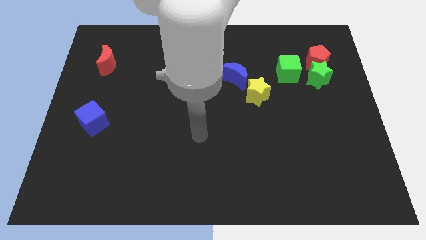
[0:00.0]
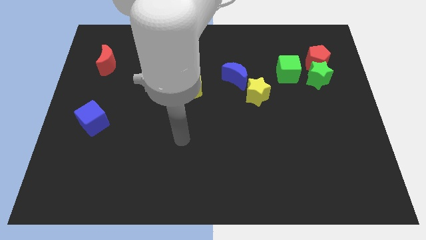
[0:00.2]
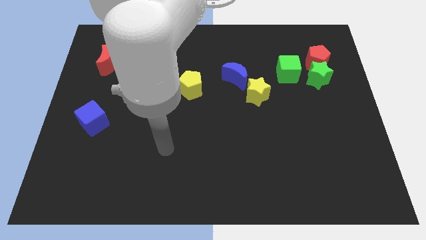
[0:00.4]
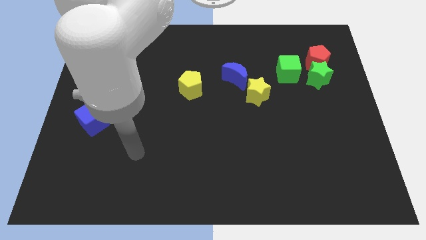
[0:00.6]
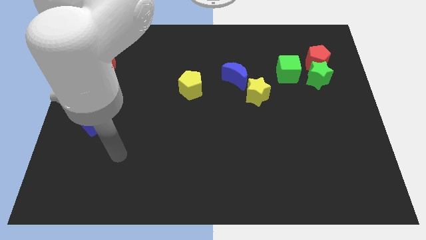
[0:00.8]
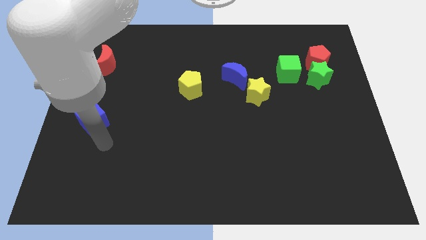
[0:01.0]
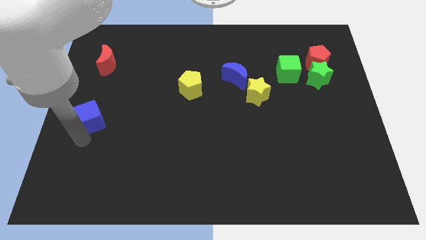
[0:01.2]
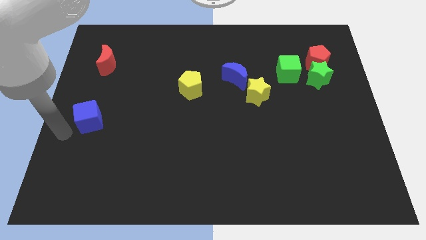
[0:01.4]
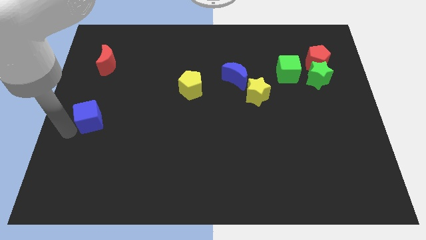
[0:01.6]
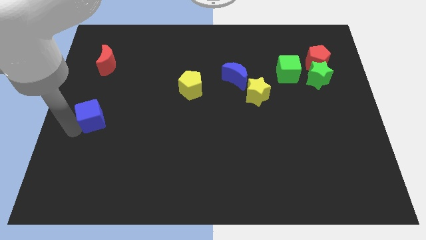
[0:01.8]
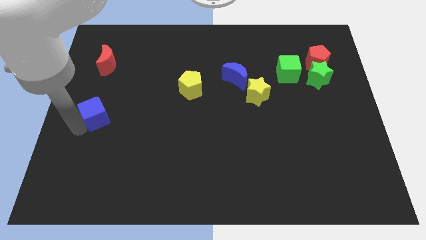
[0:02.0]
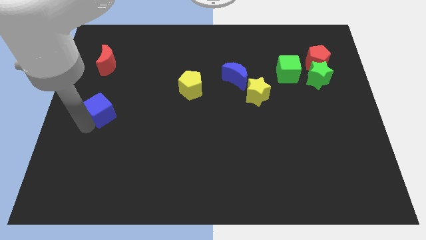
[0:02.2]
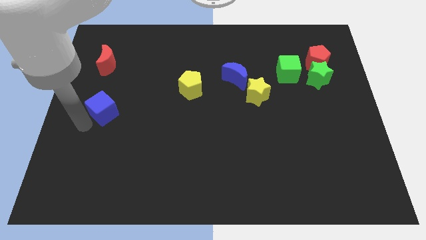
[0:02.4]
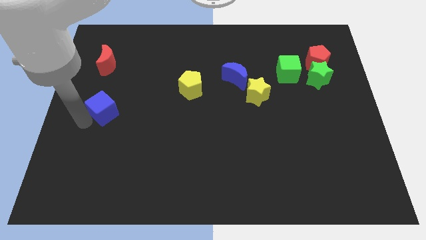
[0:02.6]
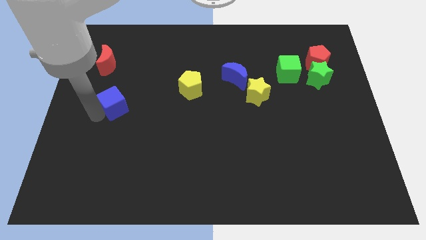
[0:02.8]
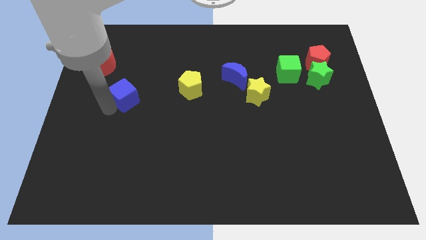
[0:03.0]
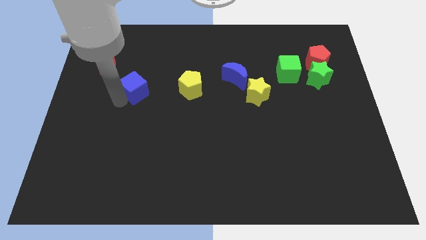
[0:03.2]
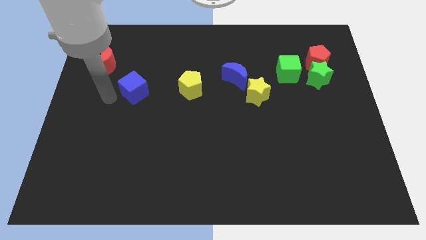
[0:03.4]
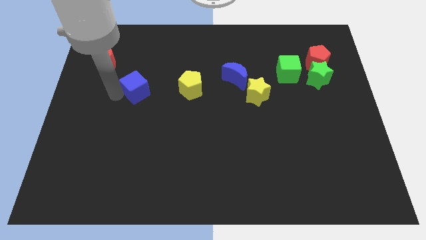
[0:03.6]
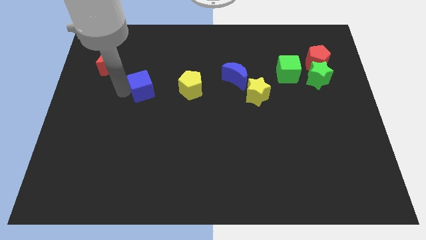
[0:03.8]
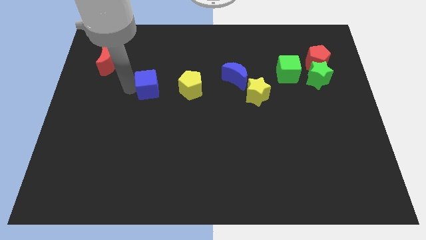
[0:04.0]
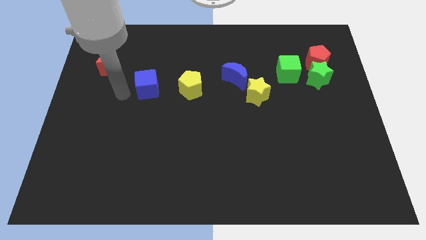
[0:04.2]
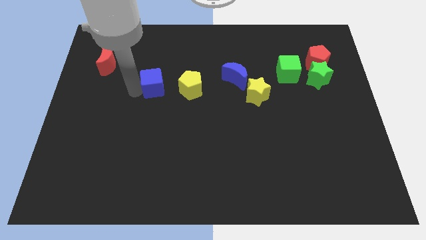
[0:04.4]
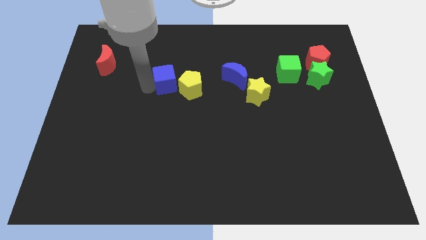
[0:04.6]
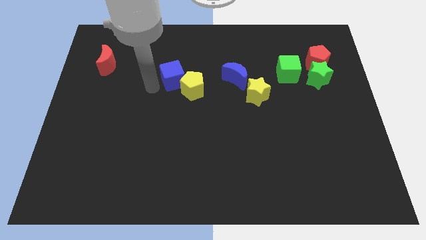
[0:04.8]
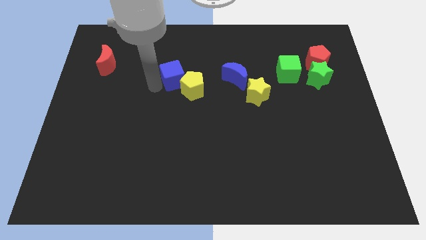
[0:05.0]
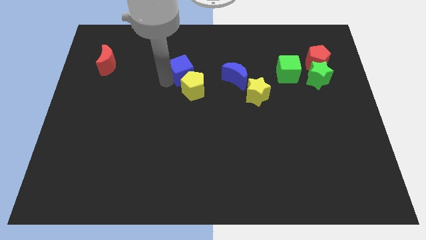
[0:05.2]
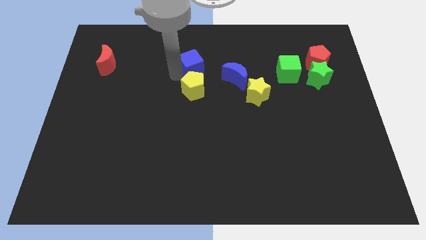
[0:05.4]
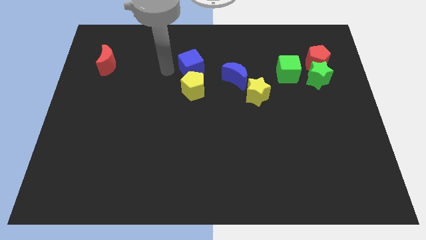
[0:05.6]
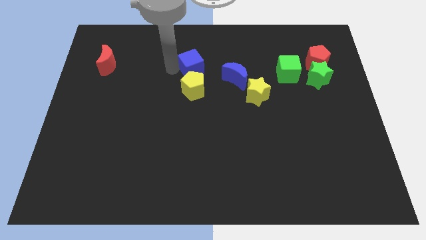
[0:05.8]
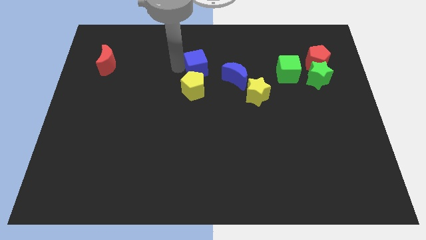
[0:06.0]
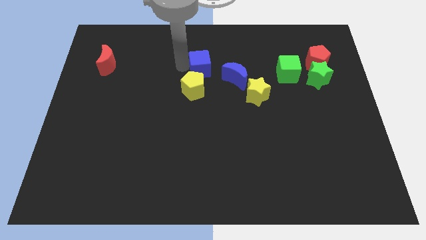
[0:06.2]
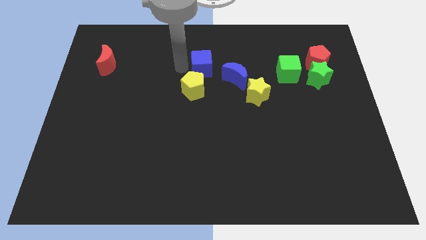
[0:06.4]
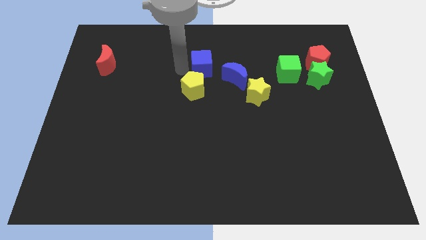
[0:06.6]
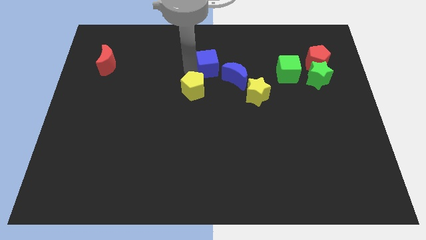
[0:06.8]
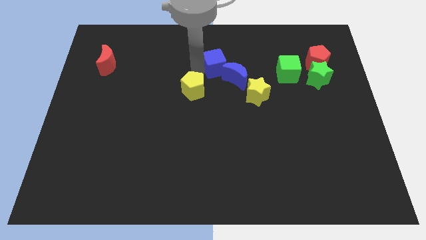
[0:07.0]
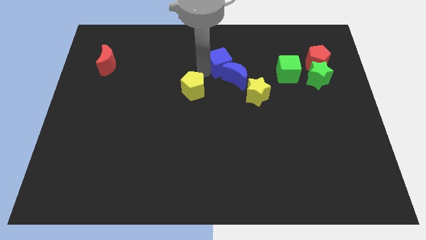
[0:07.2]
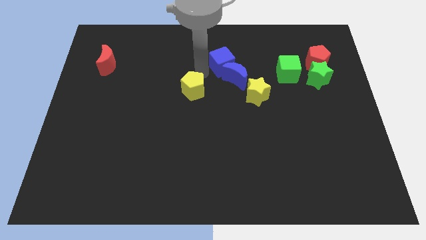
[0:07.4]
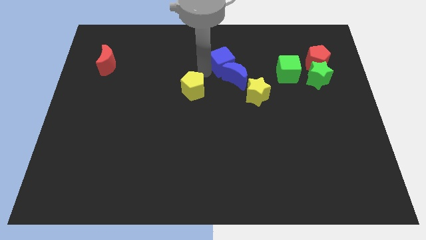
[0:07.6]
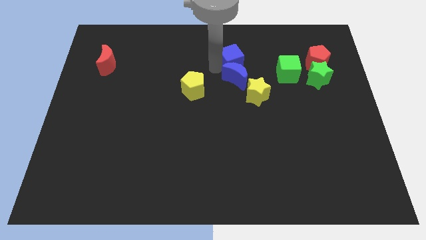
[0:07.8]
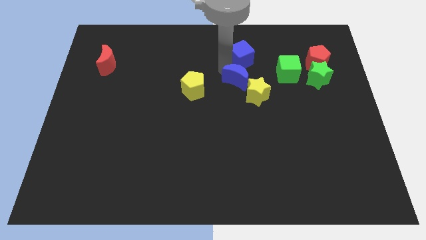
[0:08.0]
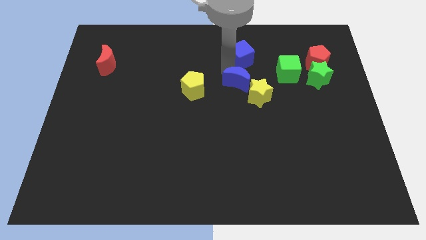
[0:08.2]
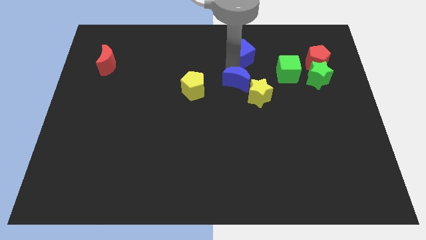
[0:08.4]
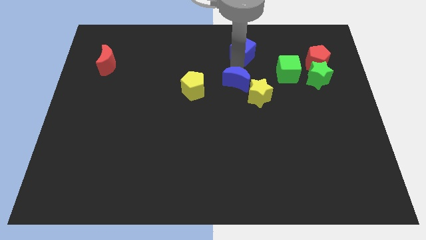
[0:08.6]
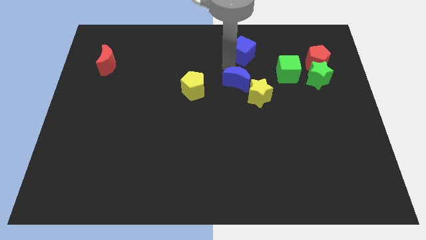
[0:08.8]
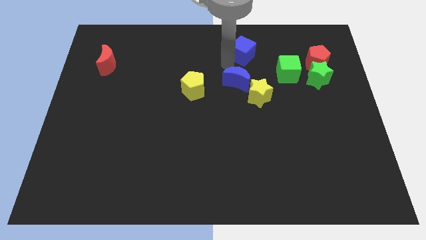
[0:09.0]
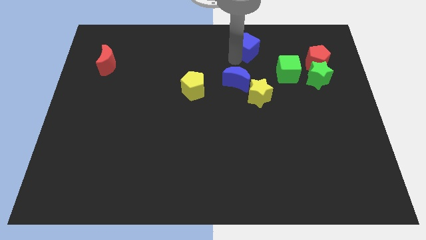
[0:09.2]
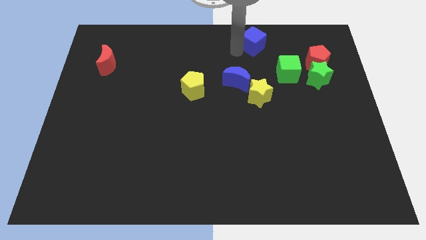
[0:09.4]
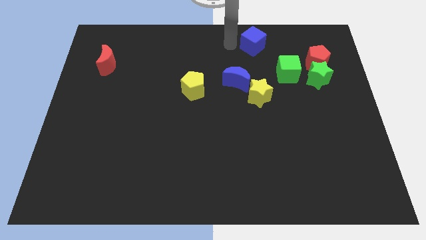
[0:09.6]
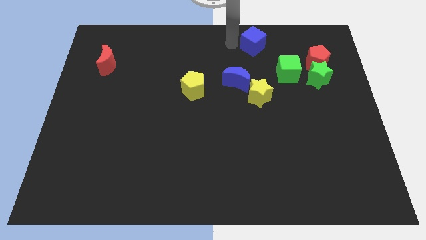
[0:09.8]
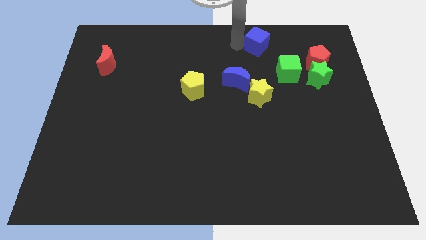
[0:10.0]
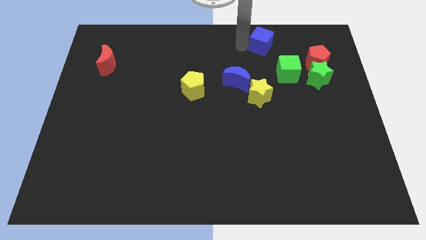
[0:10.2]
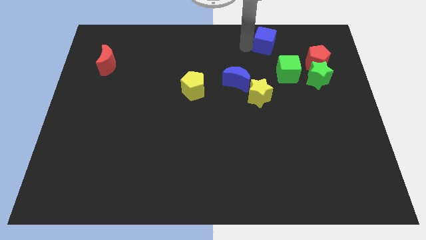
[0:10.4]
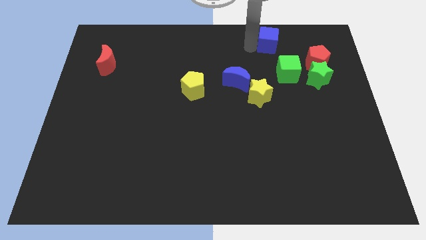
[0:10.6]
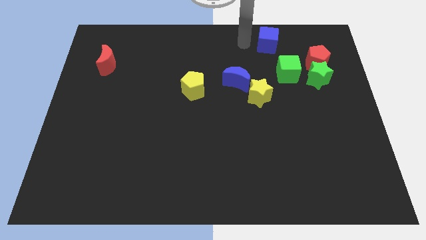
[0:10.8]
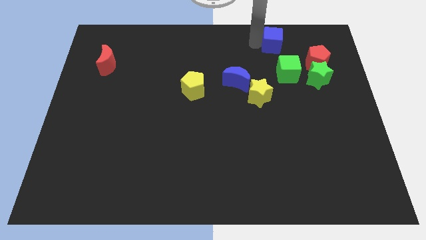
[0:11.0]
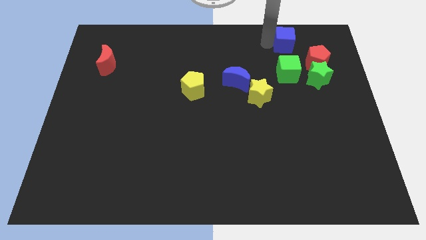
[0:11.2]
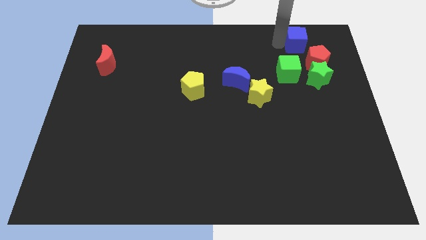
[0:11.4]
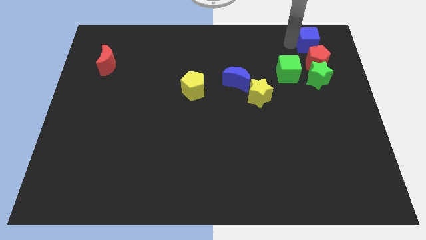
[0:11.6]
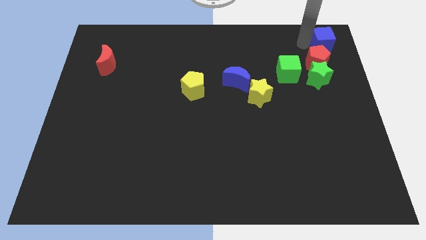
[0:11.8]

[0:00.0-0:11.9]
put the blue cube to the upper right corner

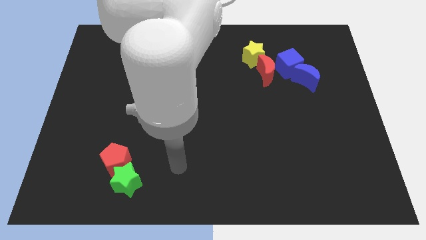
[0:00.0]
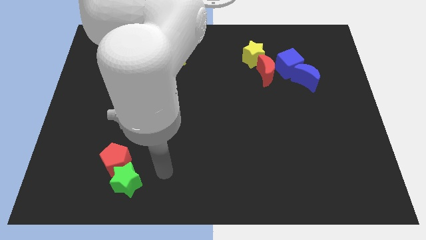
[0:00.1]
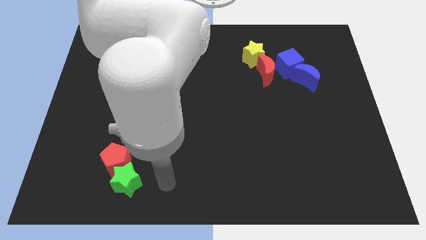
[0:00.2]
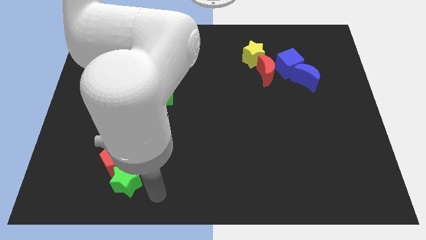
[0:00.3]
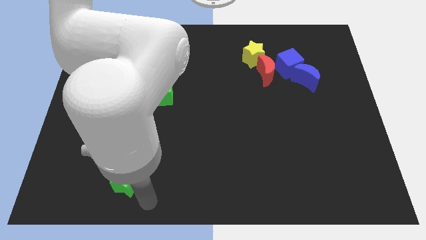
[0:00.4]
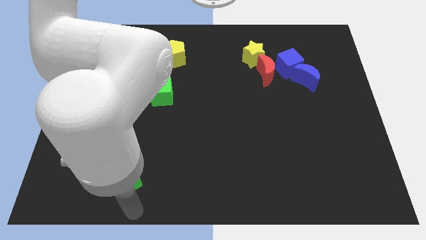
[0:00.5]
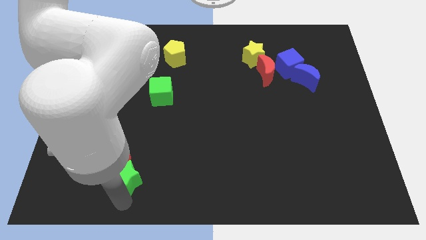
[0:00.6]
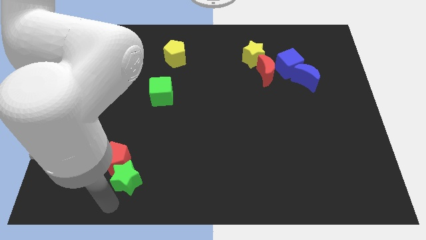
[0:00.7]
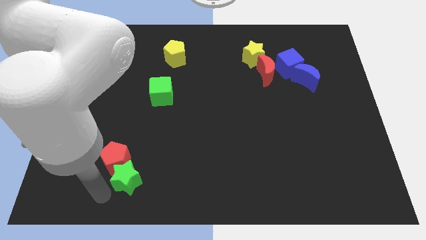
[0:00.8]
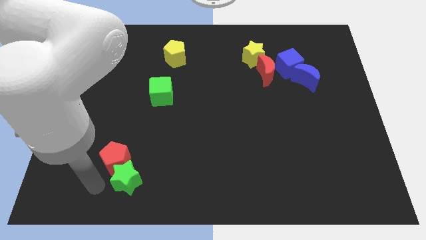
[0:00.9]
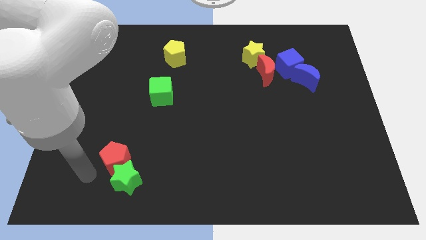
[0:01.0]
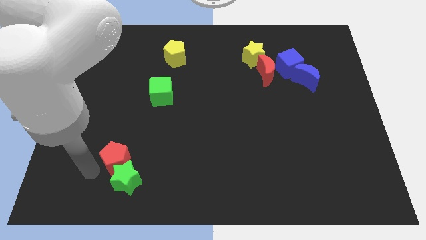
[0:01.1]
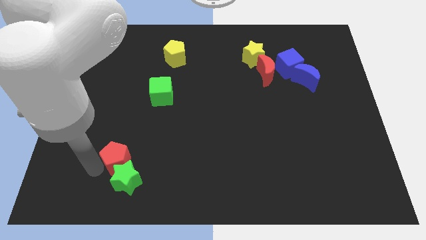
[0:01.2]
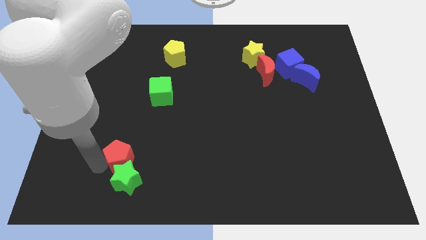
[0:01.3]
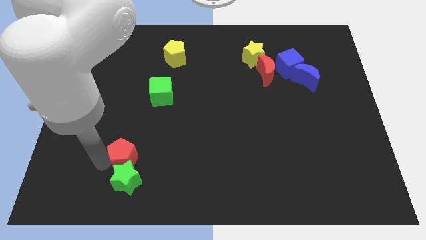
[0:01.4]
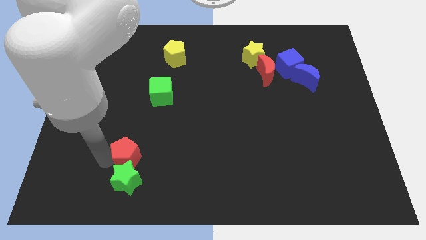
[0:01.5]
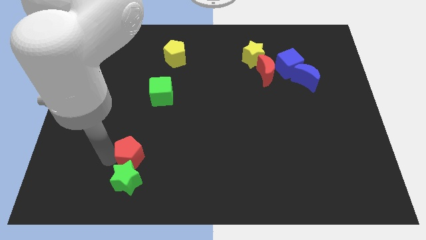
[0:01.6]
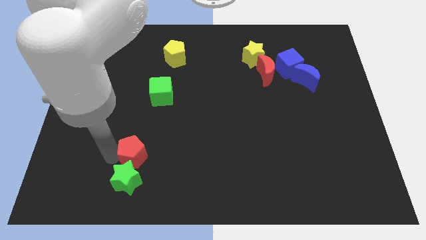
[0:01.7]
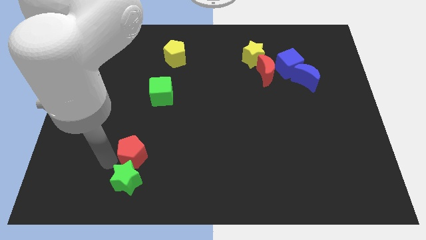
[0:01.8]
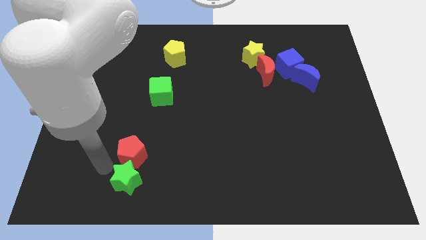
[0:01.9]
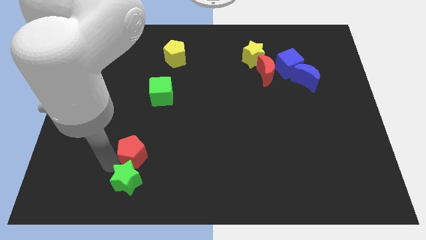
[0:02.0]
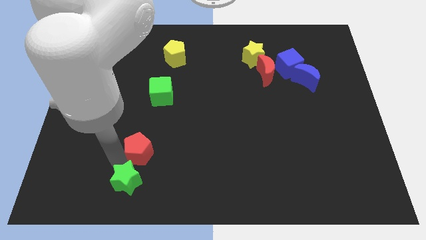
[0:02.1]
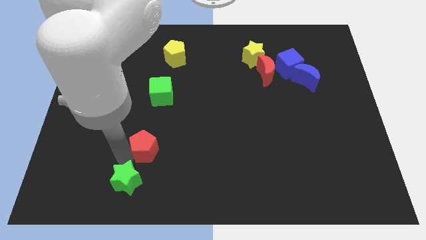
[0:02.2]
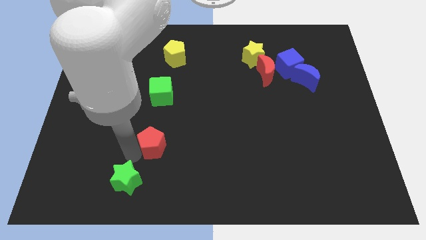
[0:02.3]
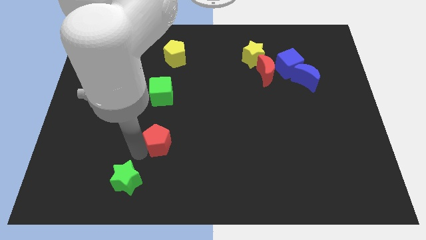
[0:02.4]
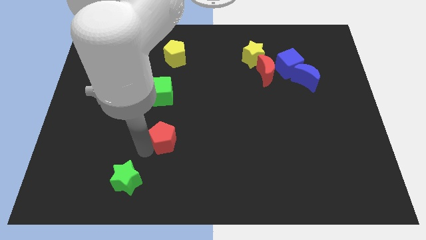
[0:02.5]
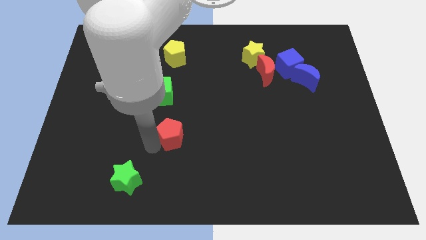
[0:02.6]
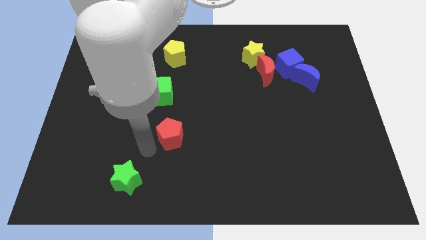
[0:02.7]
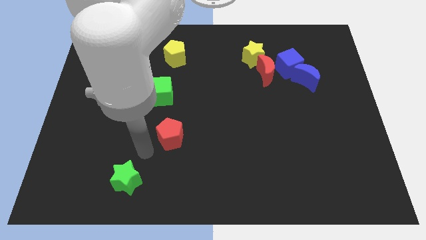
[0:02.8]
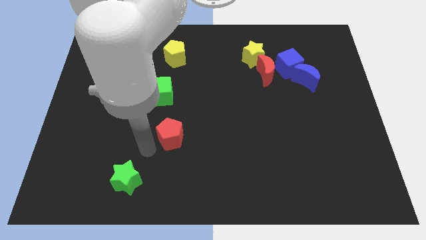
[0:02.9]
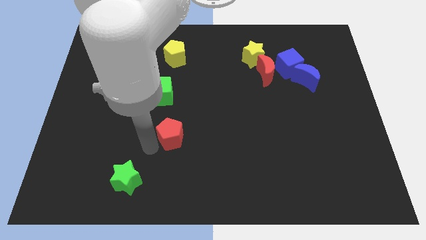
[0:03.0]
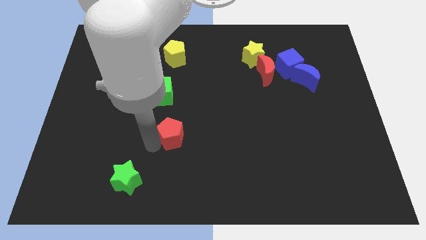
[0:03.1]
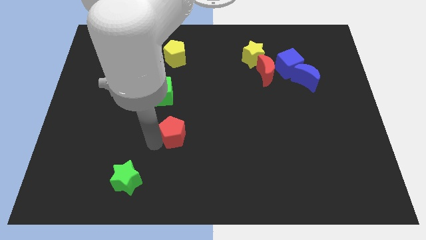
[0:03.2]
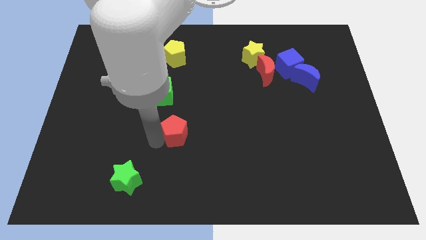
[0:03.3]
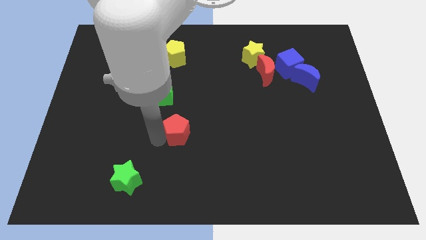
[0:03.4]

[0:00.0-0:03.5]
push the red pentagon to the middle
